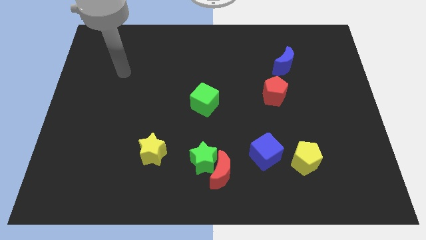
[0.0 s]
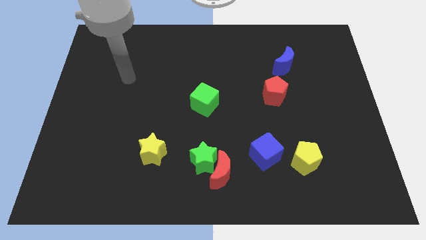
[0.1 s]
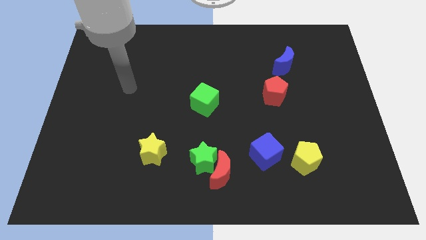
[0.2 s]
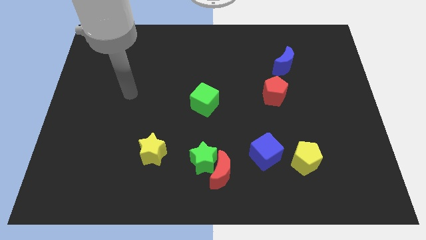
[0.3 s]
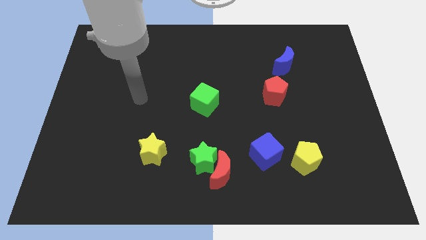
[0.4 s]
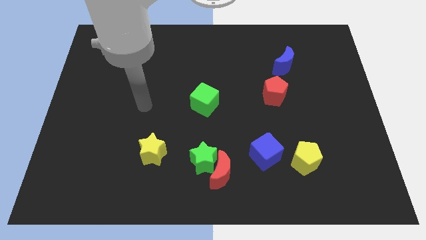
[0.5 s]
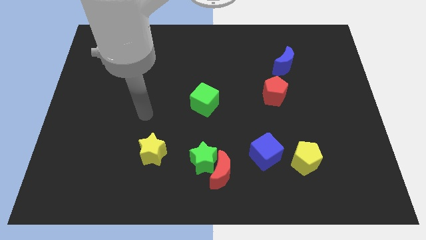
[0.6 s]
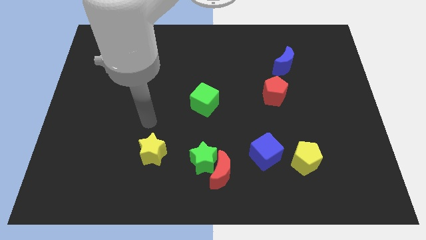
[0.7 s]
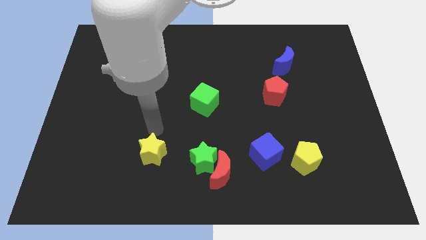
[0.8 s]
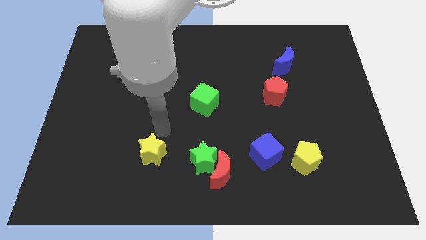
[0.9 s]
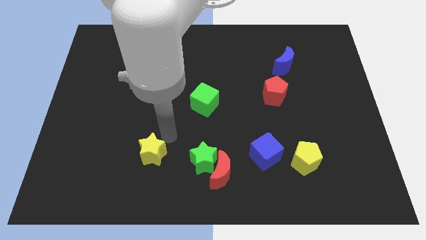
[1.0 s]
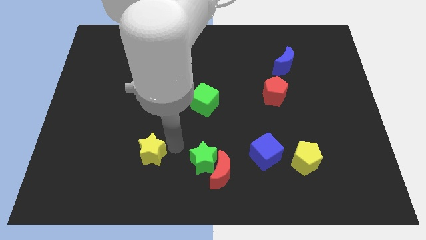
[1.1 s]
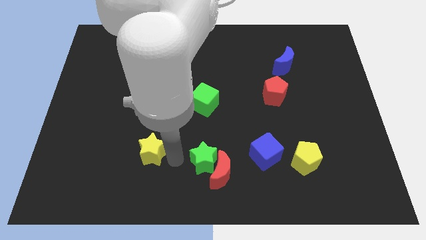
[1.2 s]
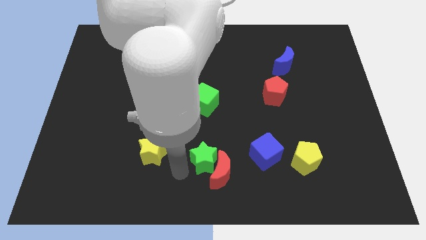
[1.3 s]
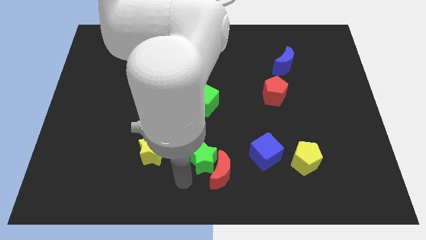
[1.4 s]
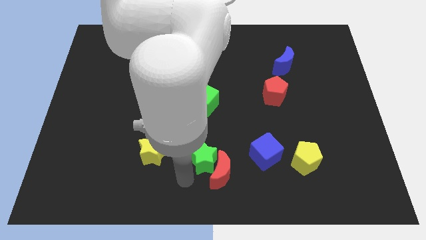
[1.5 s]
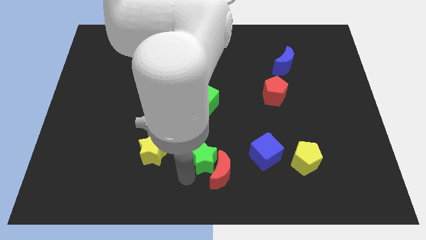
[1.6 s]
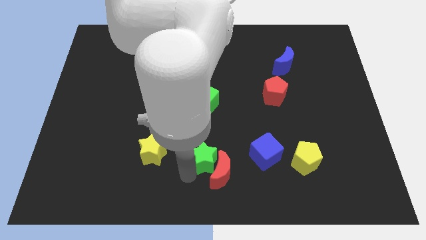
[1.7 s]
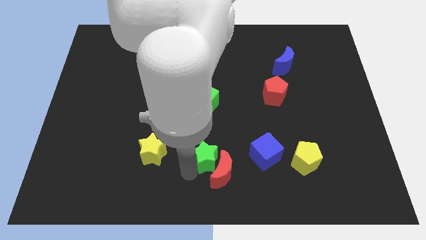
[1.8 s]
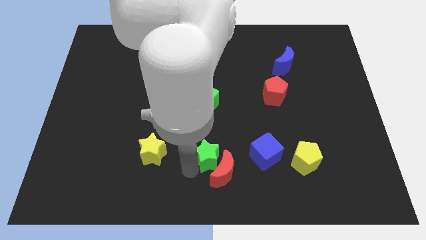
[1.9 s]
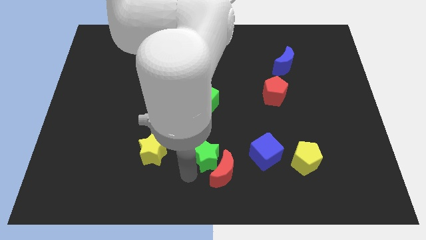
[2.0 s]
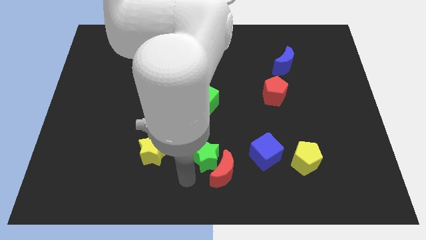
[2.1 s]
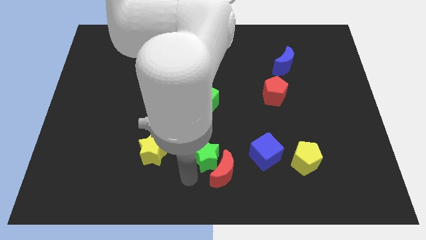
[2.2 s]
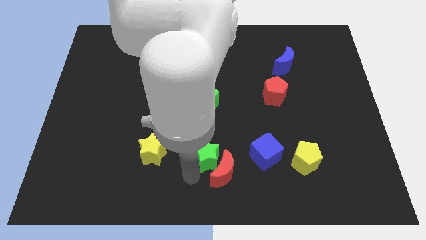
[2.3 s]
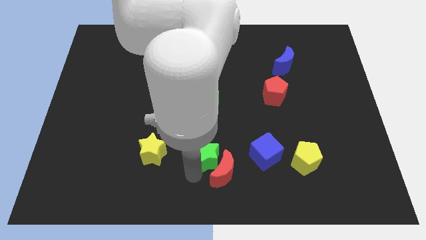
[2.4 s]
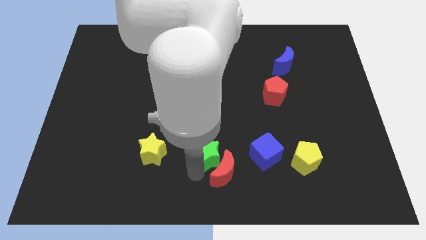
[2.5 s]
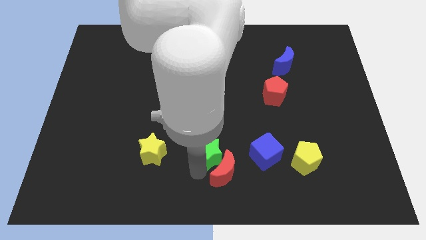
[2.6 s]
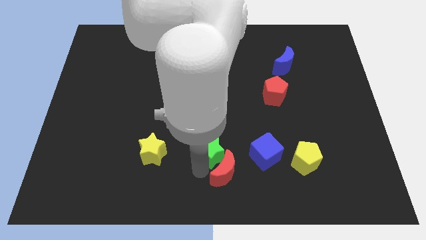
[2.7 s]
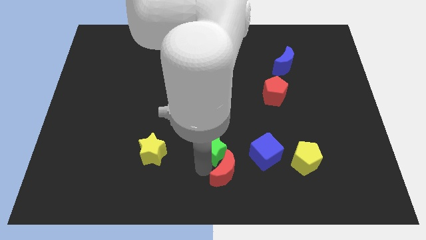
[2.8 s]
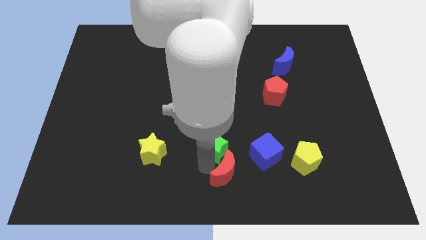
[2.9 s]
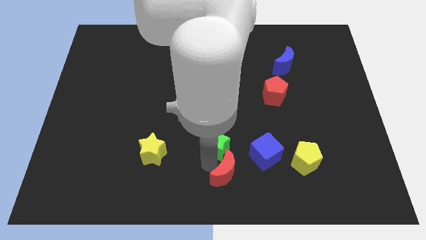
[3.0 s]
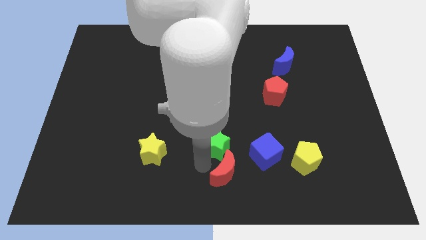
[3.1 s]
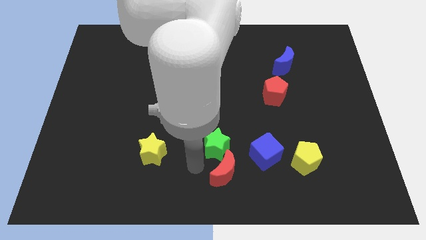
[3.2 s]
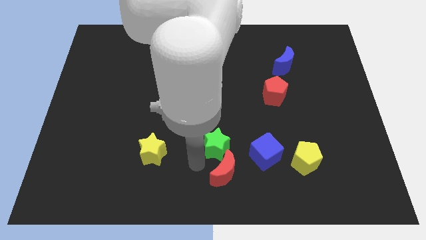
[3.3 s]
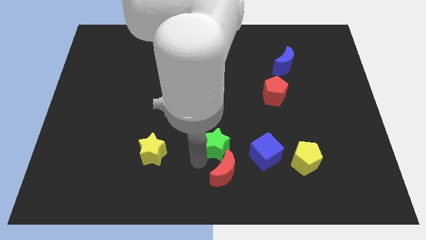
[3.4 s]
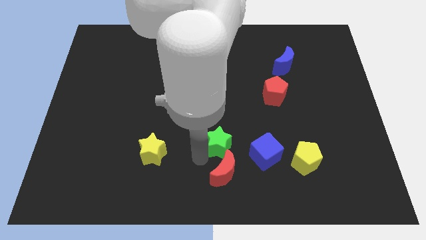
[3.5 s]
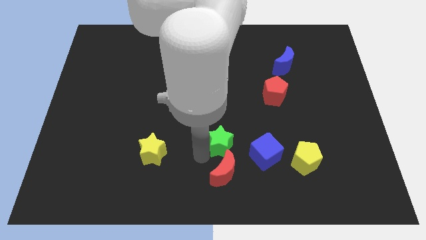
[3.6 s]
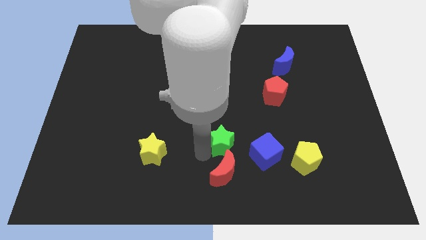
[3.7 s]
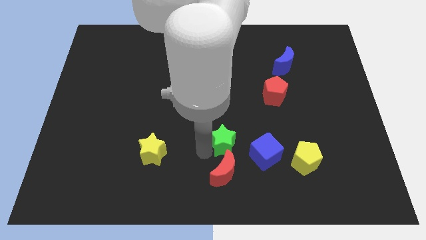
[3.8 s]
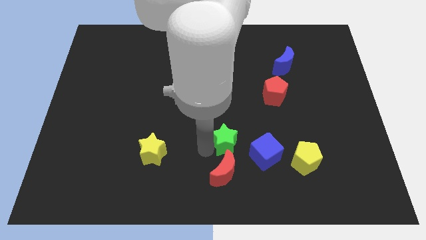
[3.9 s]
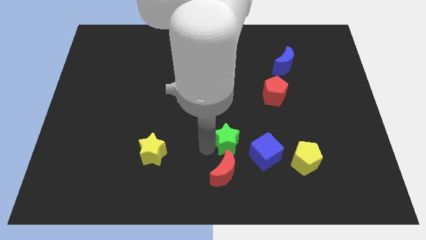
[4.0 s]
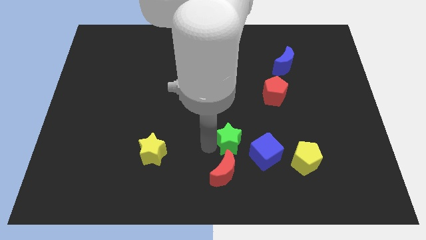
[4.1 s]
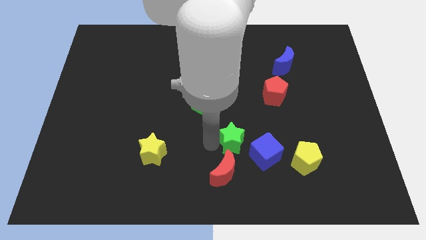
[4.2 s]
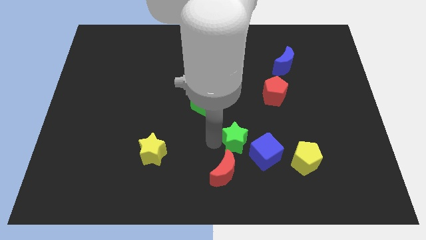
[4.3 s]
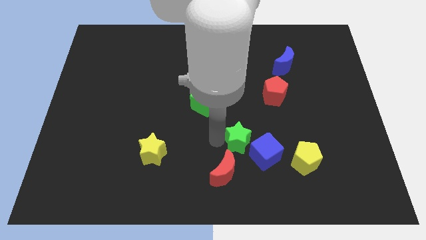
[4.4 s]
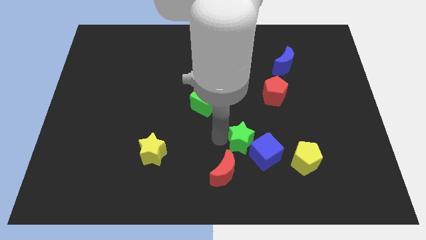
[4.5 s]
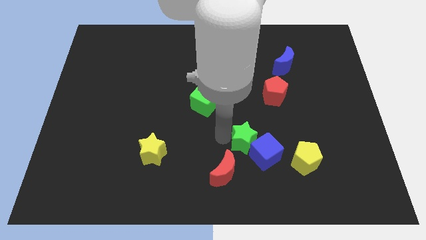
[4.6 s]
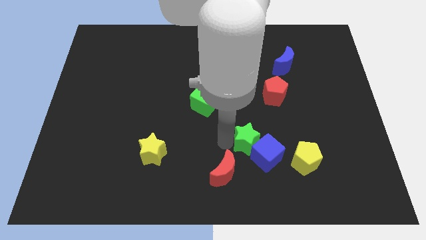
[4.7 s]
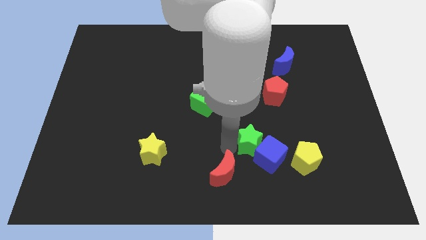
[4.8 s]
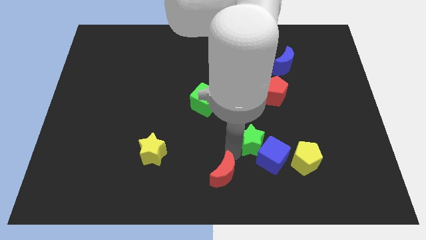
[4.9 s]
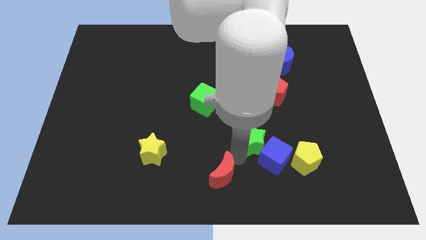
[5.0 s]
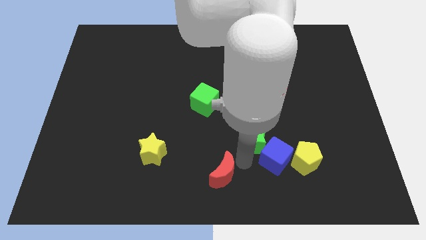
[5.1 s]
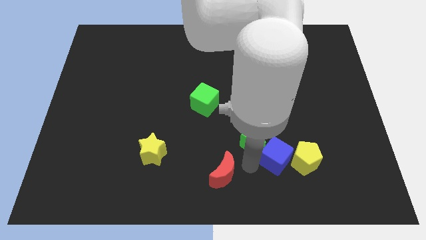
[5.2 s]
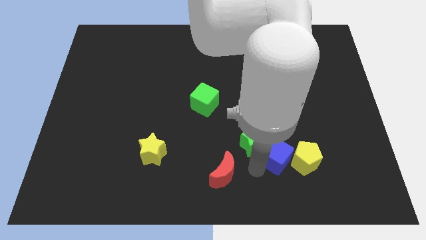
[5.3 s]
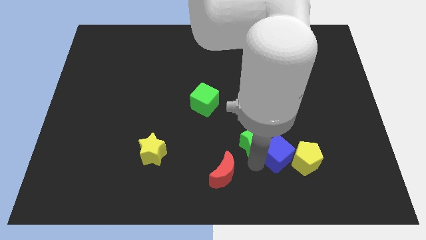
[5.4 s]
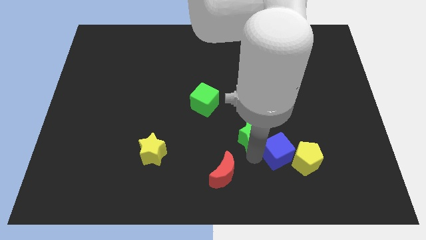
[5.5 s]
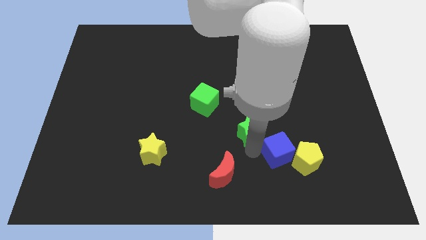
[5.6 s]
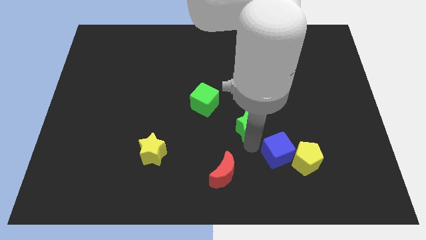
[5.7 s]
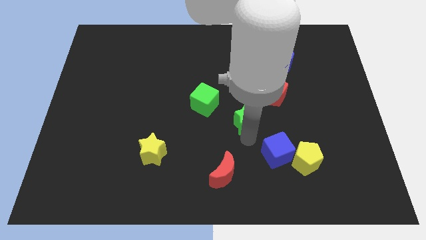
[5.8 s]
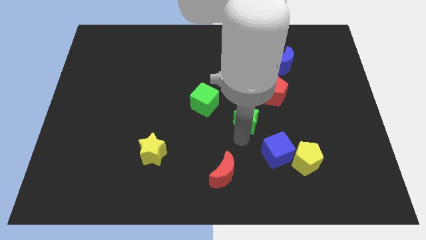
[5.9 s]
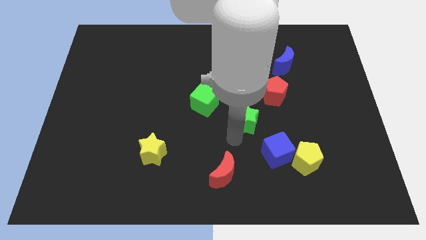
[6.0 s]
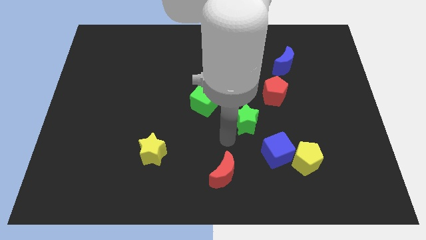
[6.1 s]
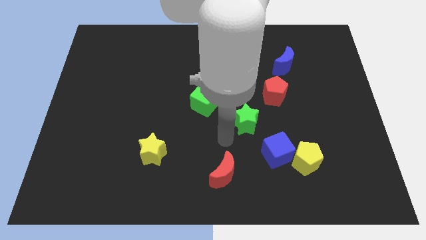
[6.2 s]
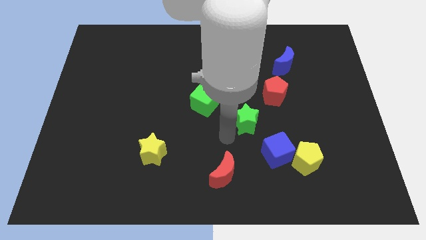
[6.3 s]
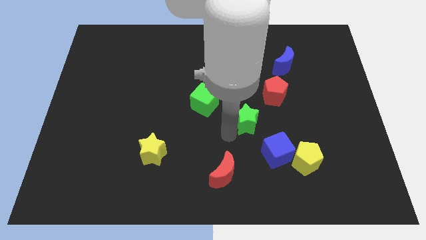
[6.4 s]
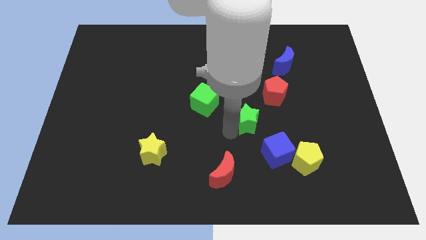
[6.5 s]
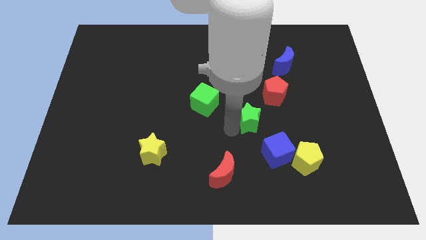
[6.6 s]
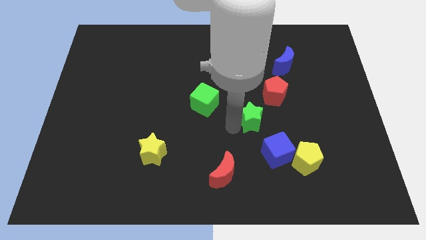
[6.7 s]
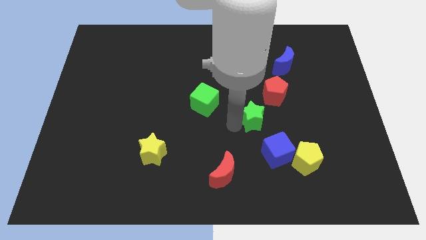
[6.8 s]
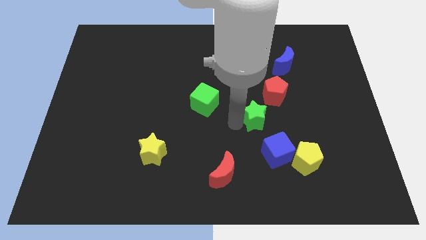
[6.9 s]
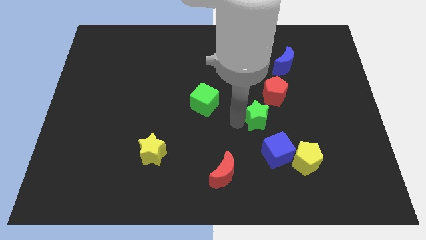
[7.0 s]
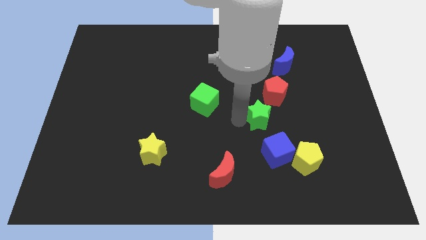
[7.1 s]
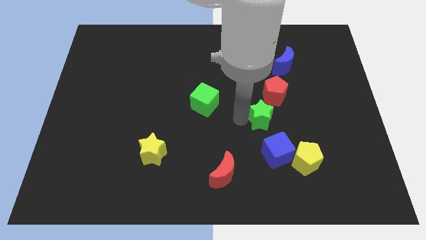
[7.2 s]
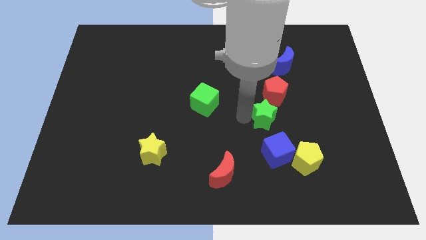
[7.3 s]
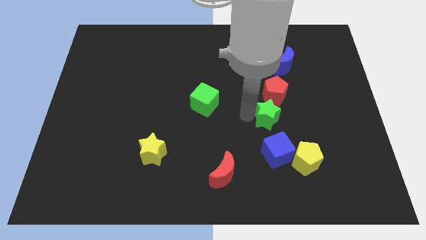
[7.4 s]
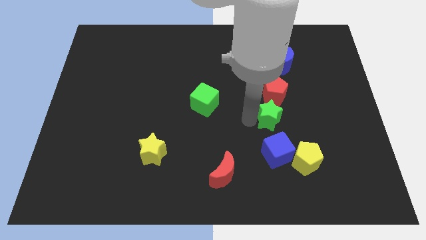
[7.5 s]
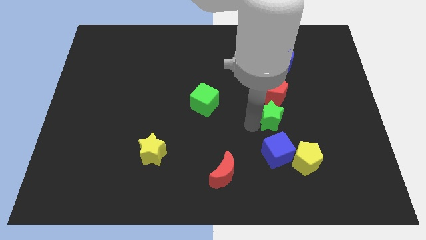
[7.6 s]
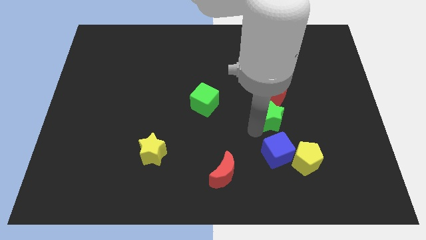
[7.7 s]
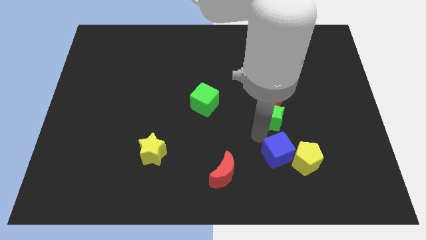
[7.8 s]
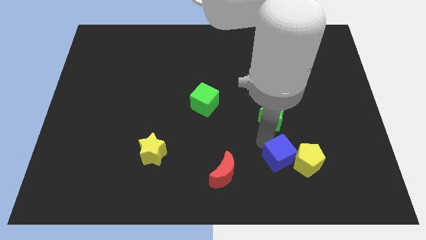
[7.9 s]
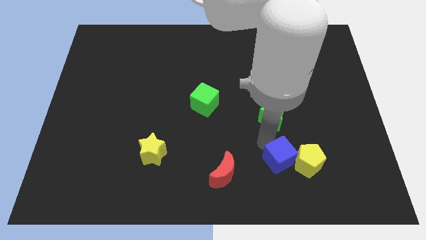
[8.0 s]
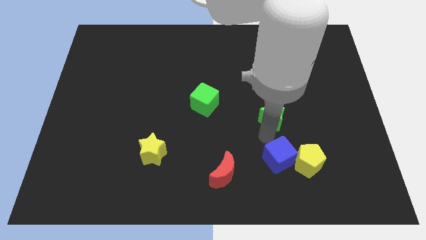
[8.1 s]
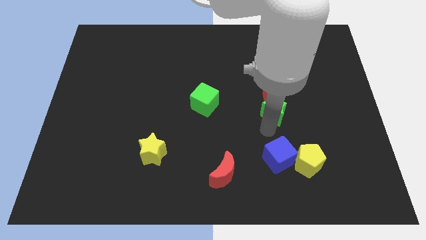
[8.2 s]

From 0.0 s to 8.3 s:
put the green star close to the red pentagon

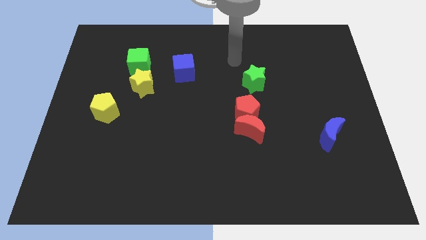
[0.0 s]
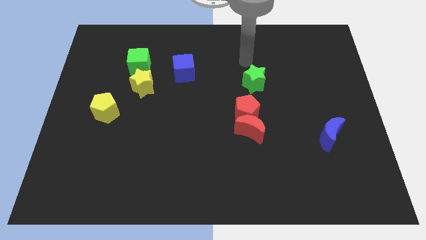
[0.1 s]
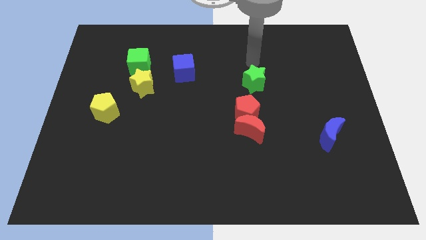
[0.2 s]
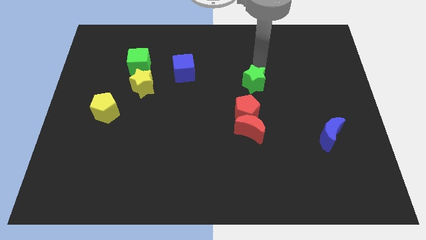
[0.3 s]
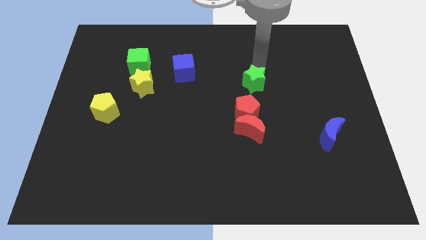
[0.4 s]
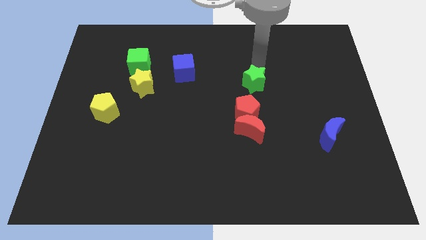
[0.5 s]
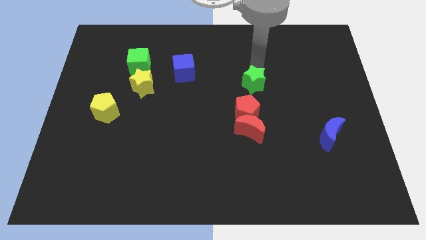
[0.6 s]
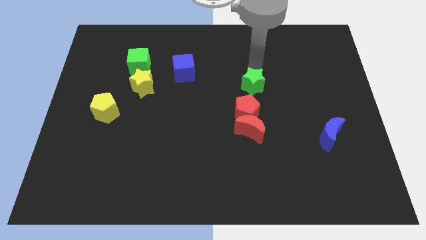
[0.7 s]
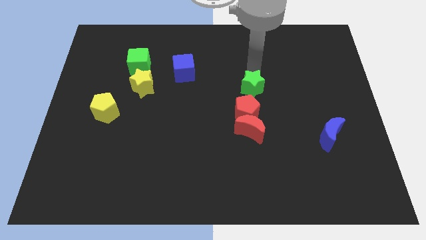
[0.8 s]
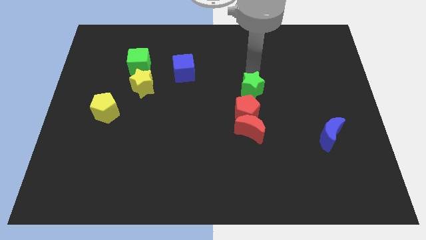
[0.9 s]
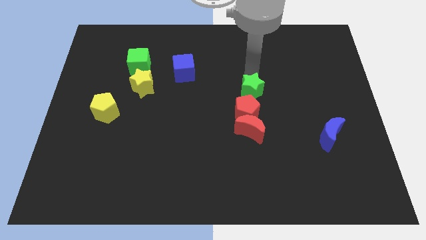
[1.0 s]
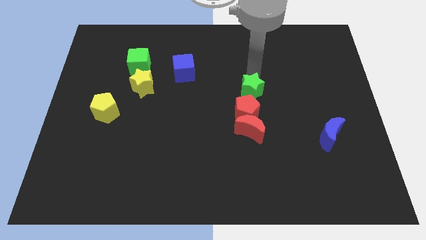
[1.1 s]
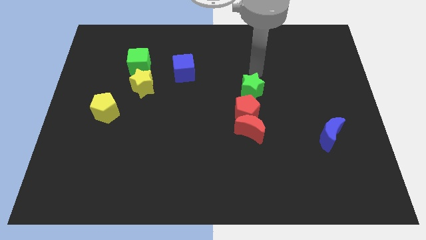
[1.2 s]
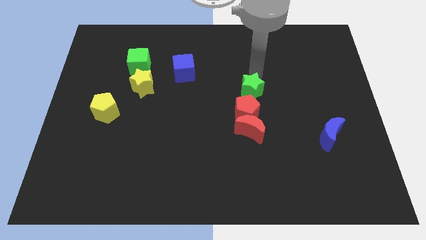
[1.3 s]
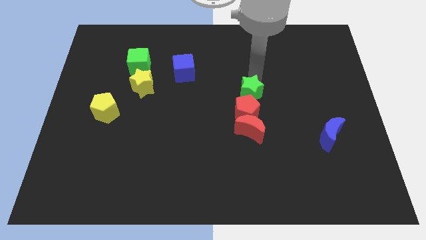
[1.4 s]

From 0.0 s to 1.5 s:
put the green star next to the red pentagon
